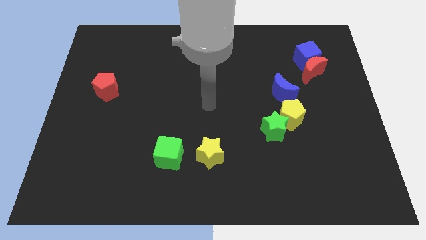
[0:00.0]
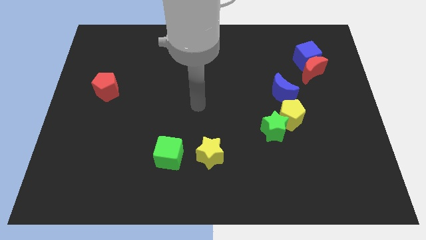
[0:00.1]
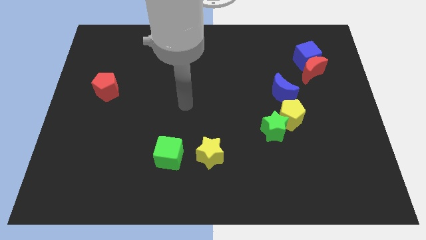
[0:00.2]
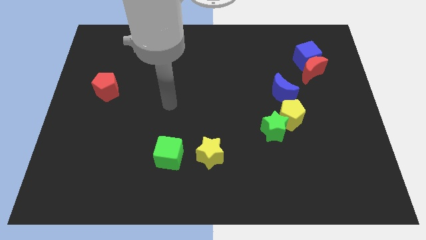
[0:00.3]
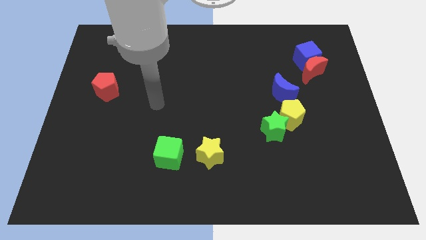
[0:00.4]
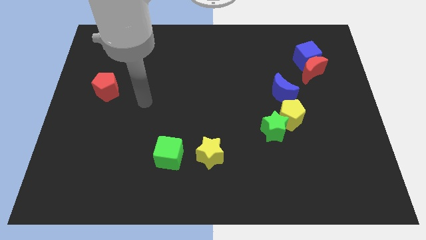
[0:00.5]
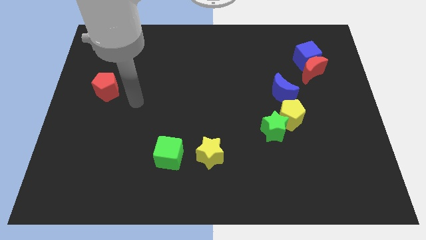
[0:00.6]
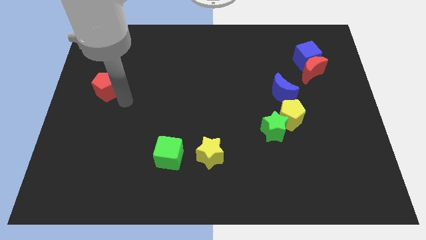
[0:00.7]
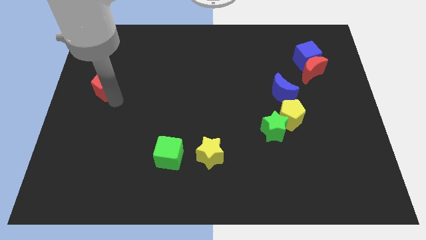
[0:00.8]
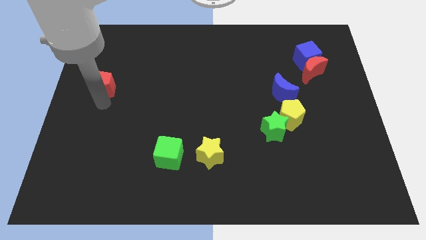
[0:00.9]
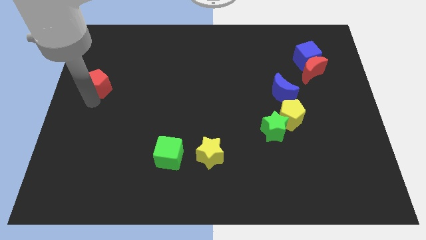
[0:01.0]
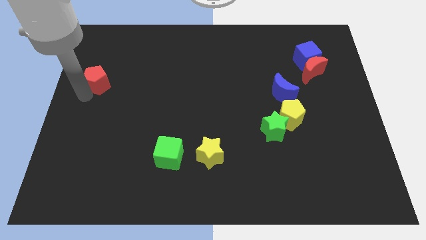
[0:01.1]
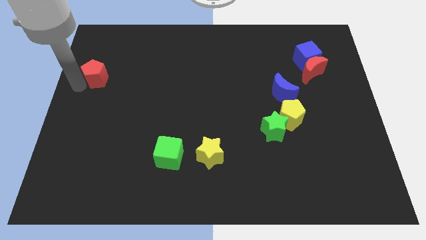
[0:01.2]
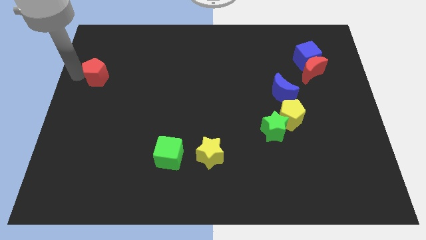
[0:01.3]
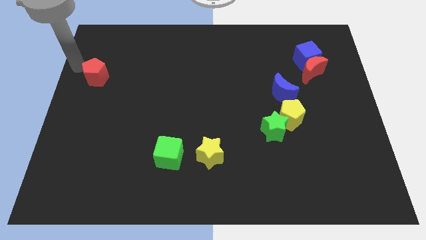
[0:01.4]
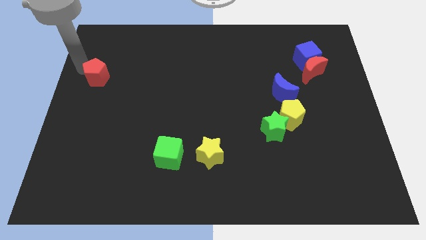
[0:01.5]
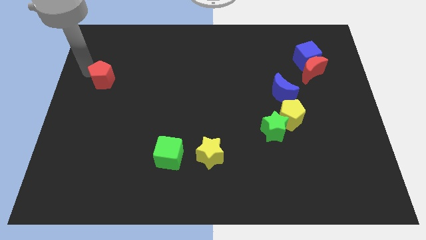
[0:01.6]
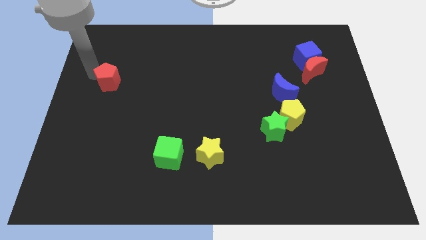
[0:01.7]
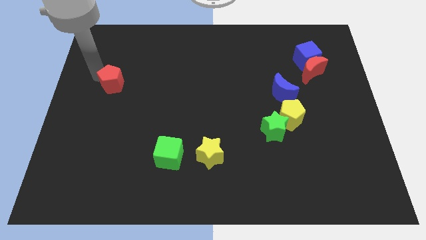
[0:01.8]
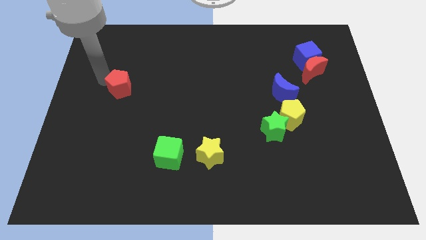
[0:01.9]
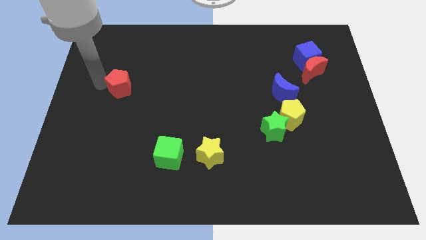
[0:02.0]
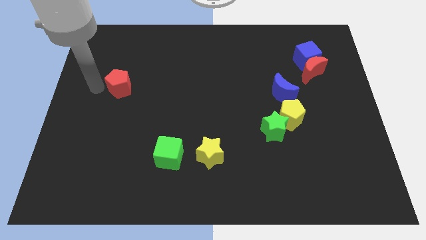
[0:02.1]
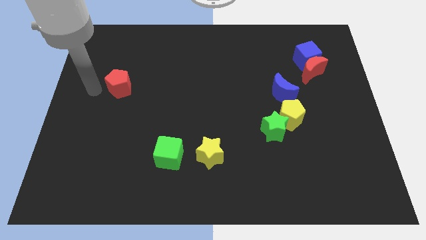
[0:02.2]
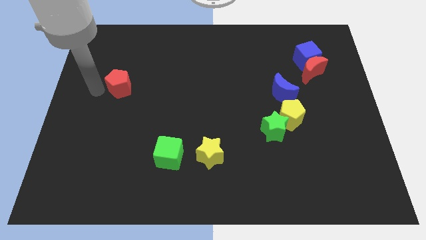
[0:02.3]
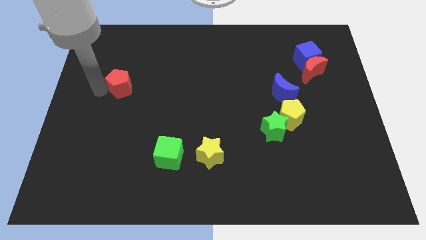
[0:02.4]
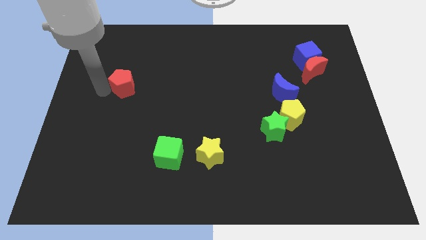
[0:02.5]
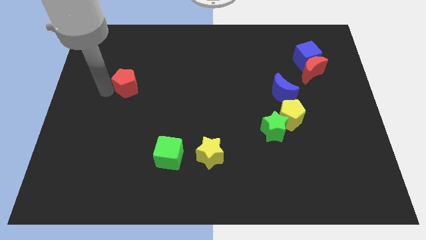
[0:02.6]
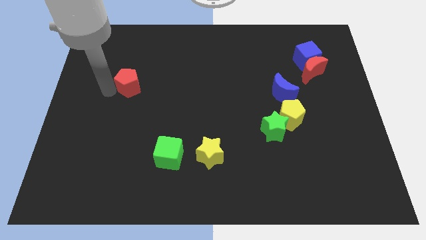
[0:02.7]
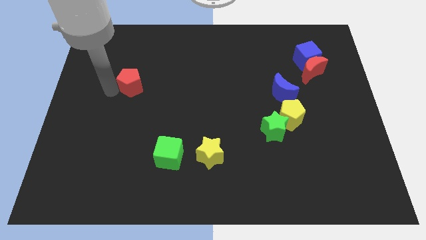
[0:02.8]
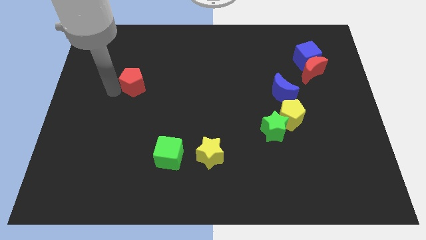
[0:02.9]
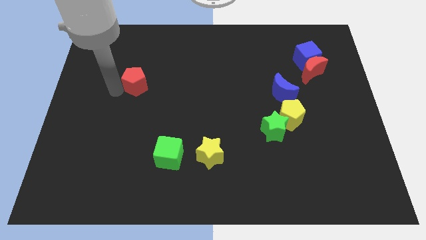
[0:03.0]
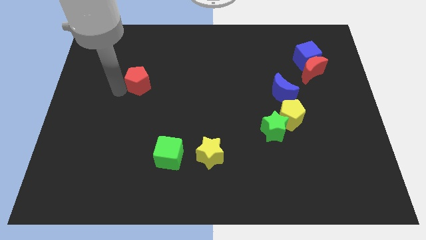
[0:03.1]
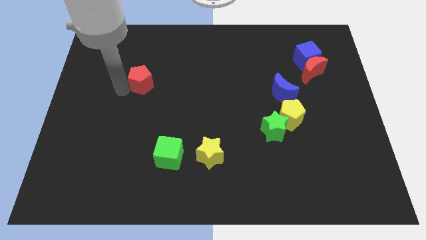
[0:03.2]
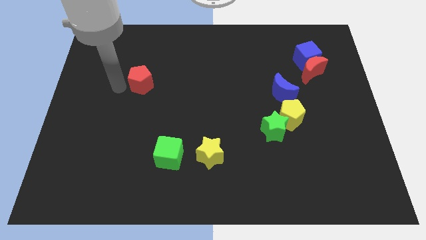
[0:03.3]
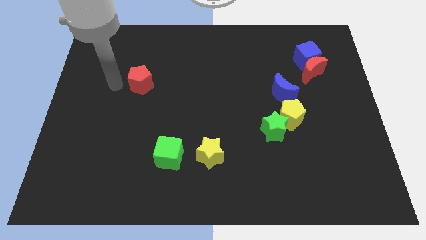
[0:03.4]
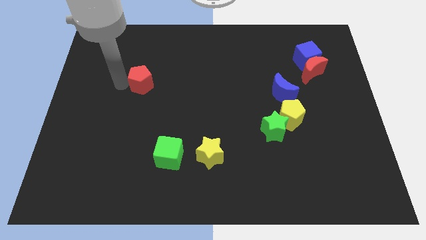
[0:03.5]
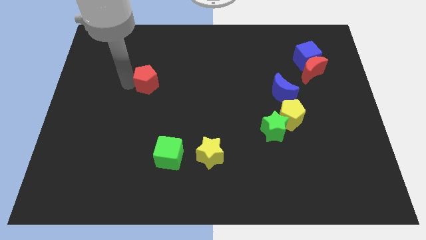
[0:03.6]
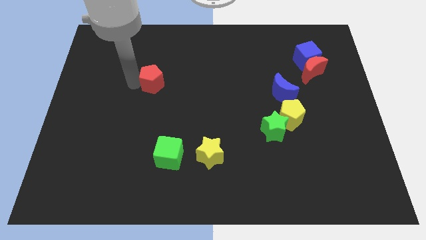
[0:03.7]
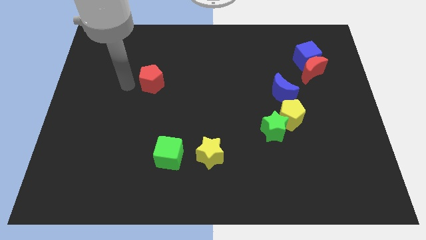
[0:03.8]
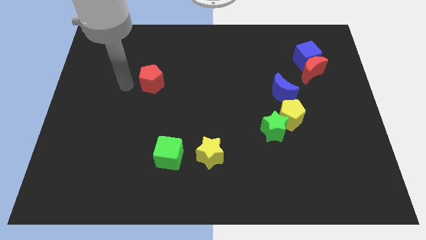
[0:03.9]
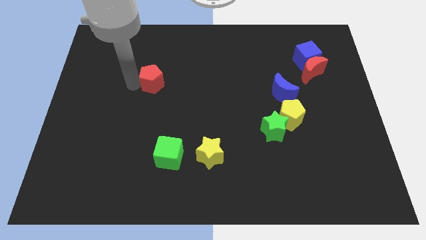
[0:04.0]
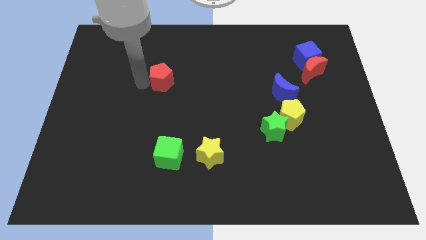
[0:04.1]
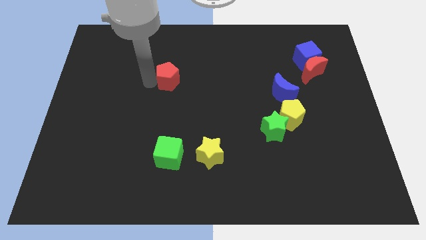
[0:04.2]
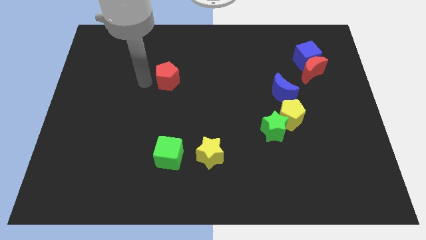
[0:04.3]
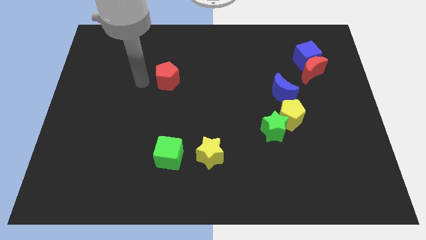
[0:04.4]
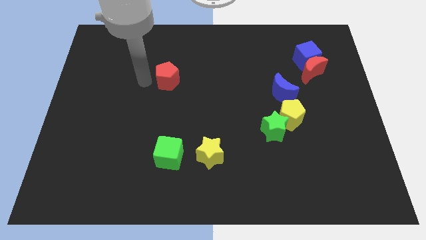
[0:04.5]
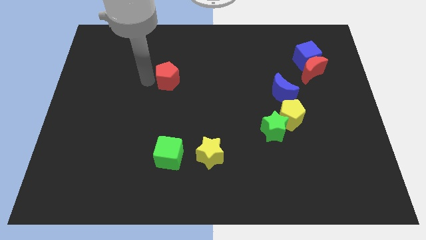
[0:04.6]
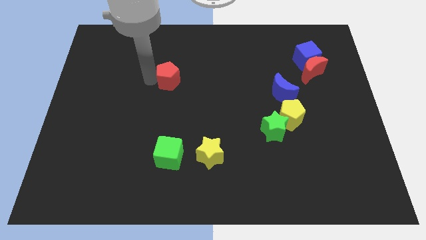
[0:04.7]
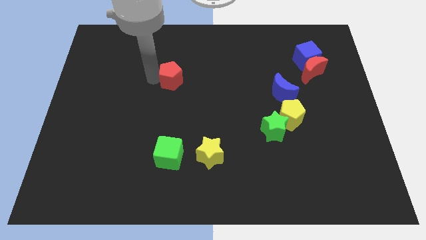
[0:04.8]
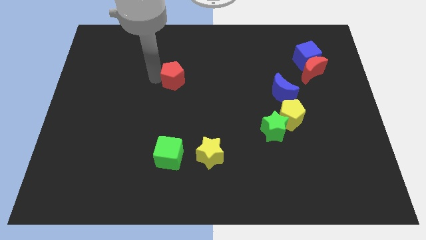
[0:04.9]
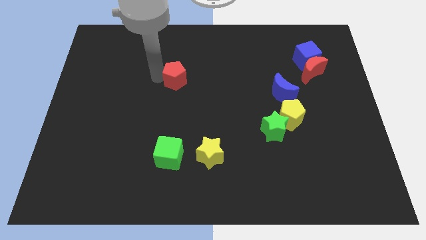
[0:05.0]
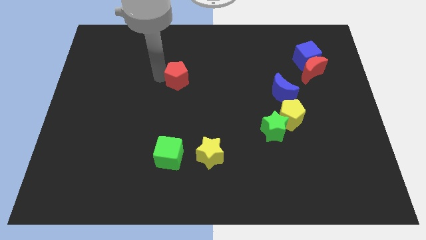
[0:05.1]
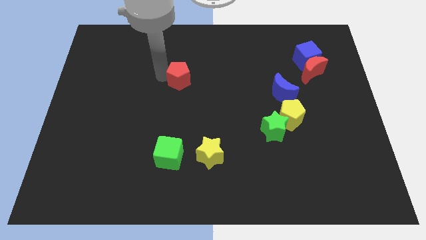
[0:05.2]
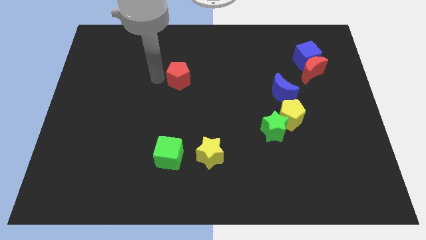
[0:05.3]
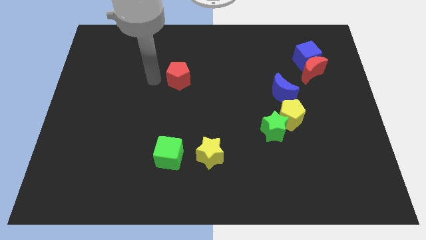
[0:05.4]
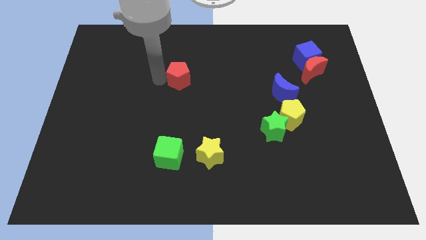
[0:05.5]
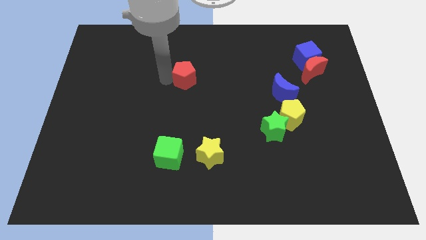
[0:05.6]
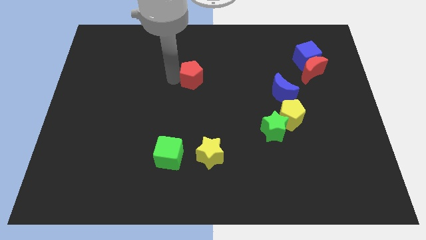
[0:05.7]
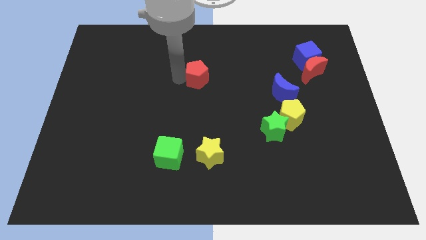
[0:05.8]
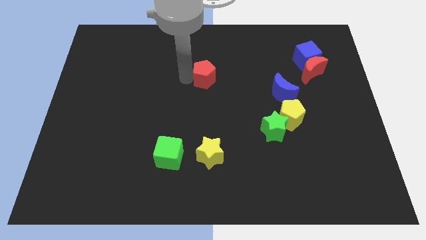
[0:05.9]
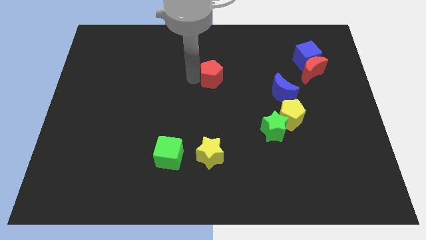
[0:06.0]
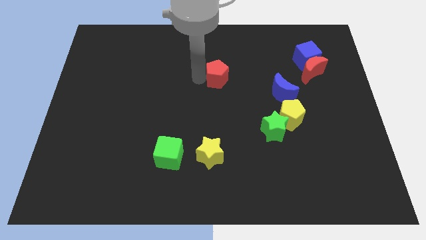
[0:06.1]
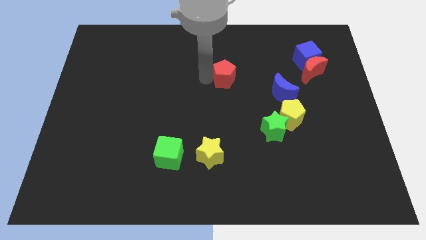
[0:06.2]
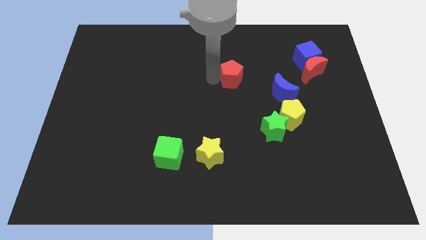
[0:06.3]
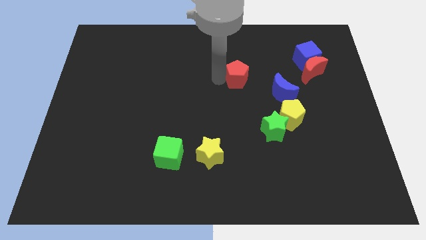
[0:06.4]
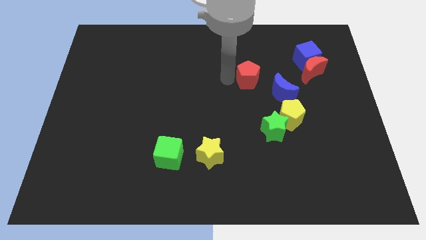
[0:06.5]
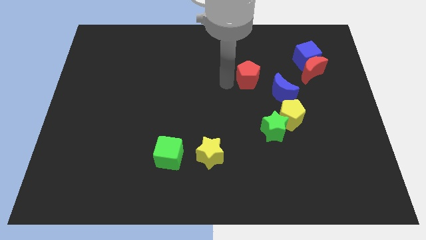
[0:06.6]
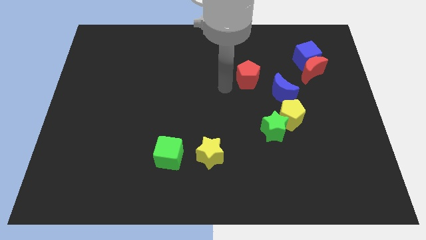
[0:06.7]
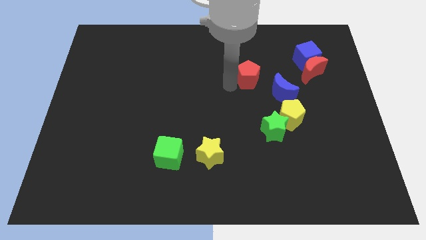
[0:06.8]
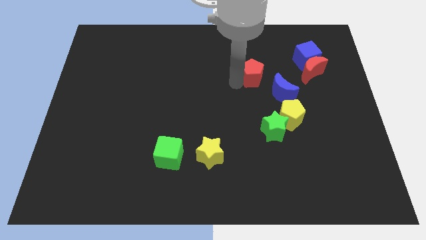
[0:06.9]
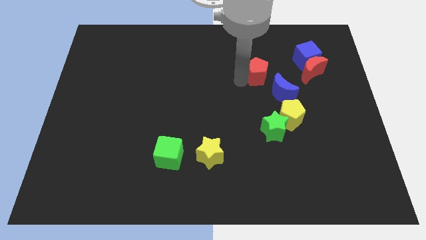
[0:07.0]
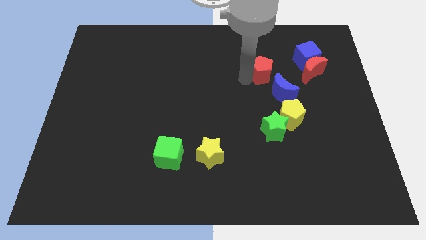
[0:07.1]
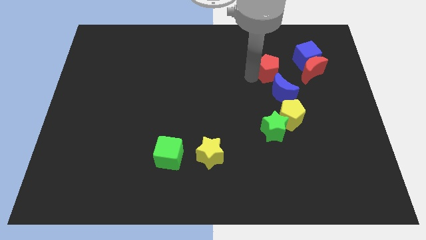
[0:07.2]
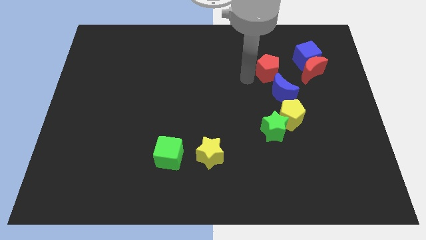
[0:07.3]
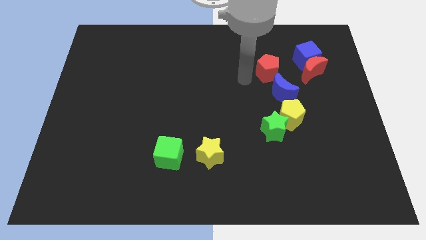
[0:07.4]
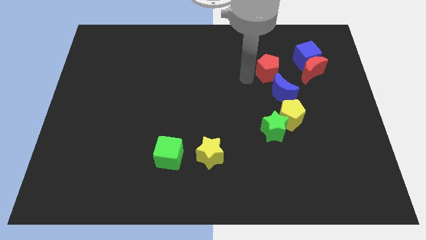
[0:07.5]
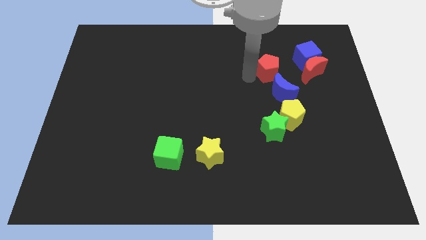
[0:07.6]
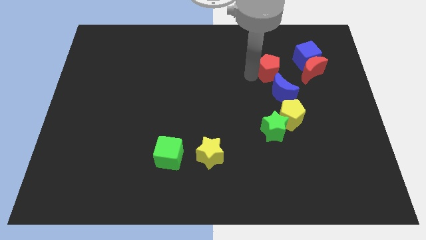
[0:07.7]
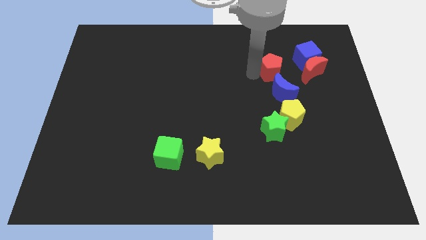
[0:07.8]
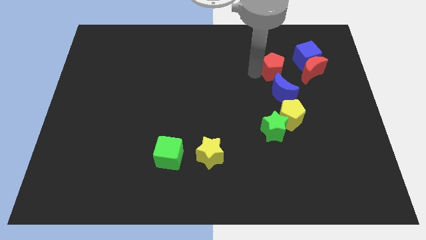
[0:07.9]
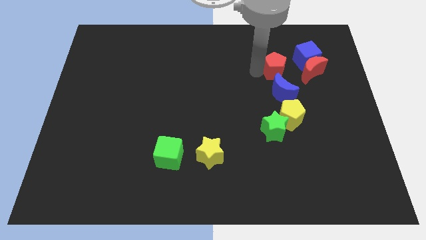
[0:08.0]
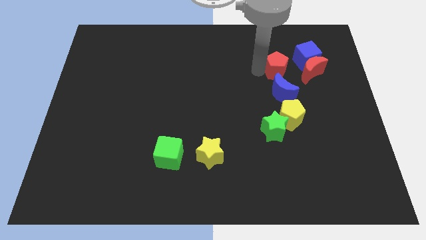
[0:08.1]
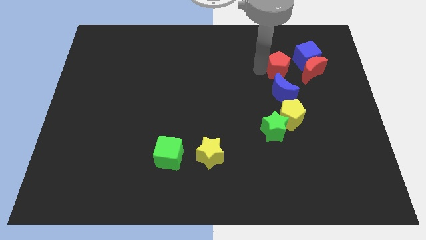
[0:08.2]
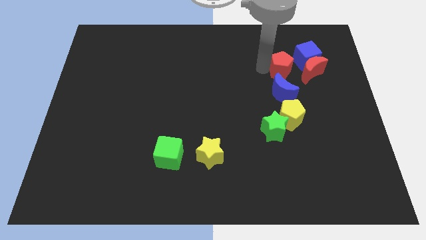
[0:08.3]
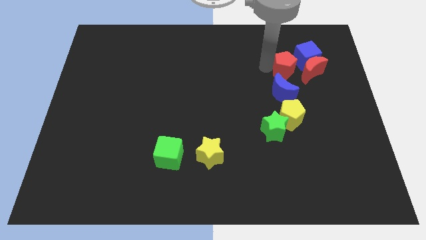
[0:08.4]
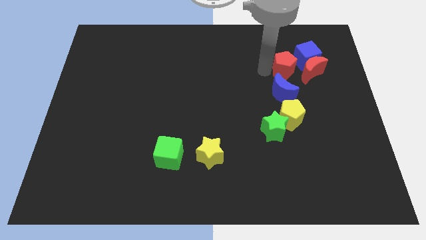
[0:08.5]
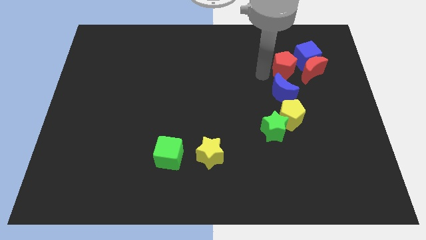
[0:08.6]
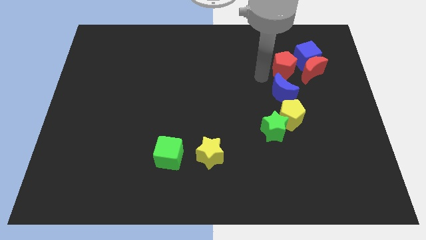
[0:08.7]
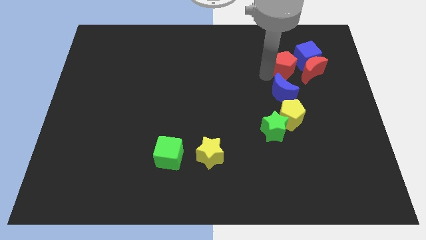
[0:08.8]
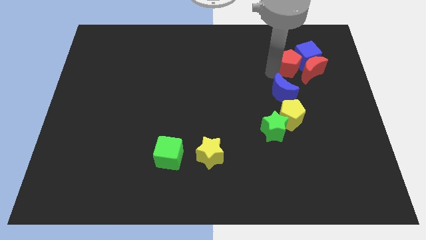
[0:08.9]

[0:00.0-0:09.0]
put the red pentagon to the blue cube
